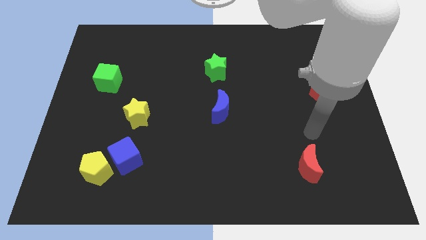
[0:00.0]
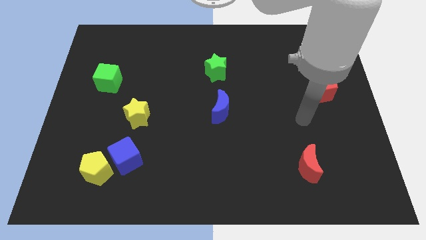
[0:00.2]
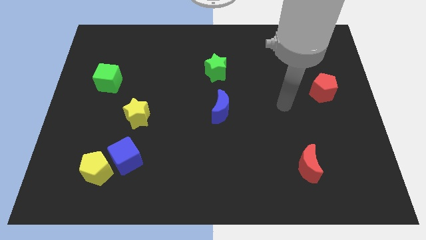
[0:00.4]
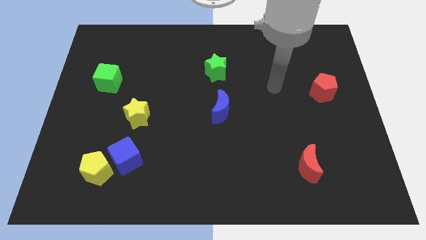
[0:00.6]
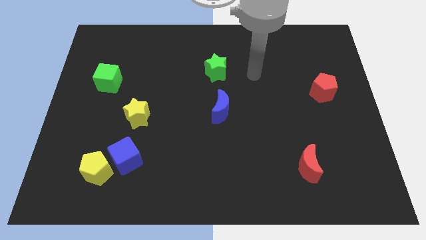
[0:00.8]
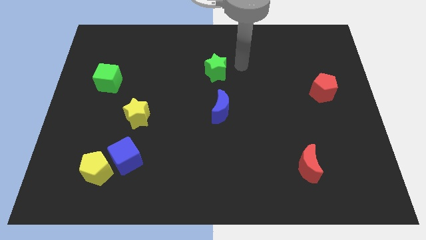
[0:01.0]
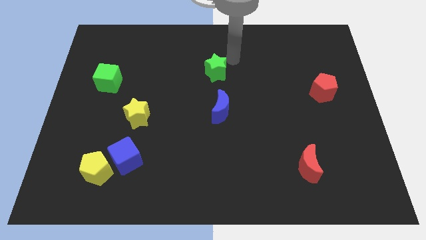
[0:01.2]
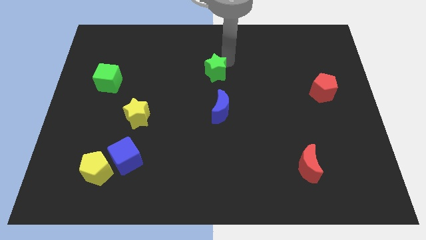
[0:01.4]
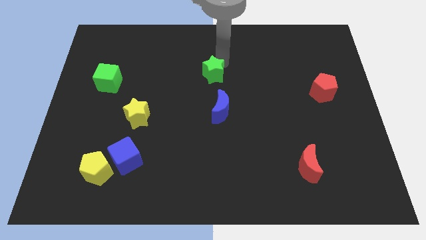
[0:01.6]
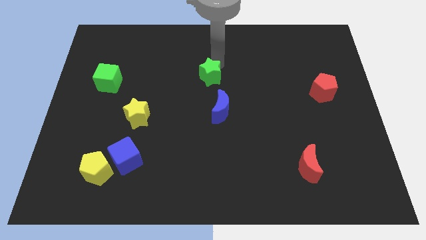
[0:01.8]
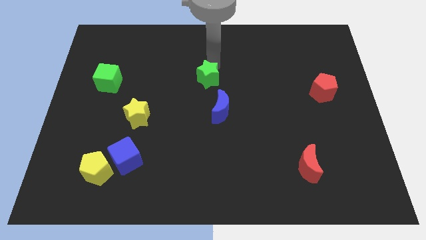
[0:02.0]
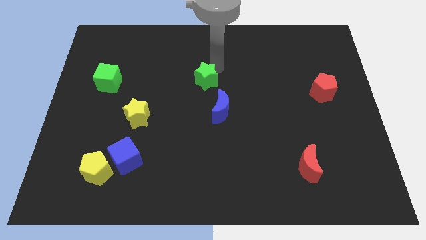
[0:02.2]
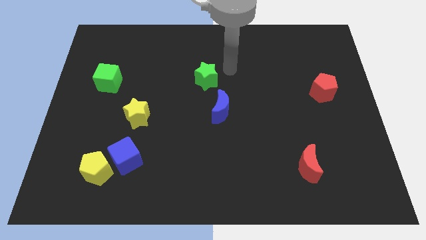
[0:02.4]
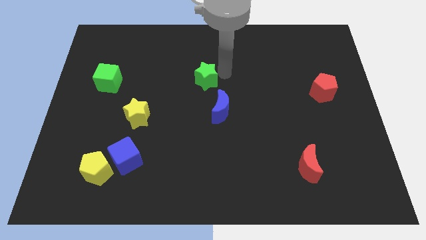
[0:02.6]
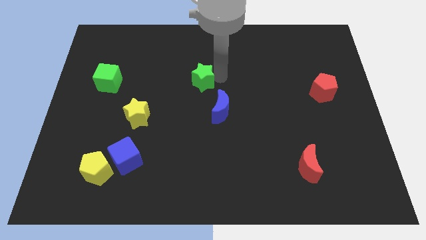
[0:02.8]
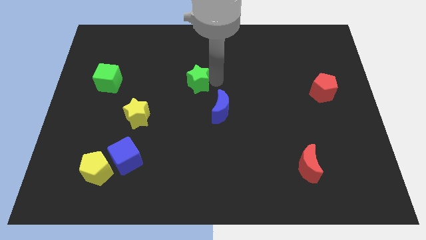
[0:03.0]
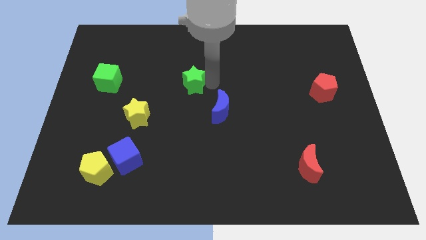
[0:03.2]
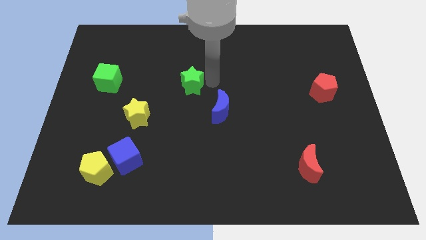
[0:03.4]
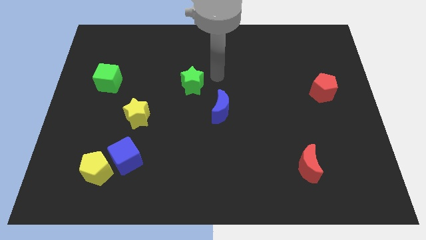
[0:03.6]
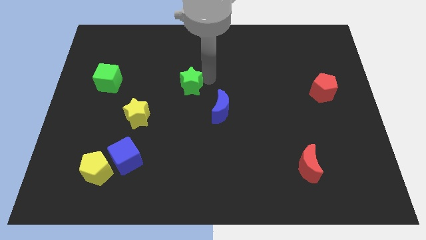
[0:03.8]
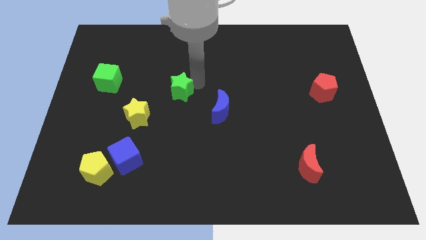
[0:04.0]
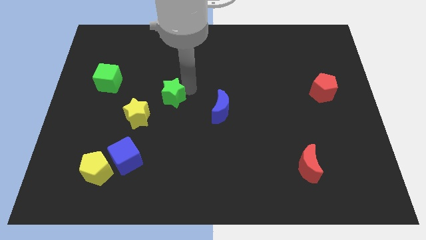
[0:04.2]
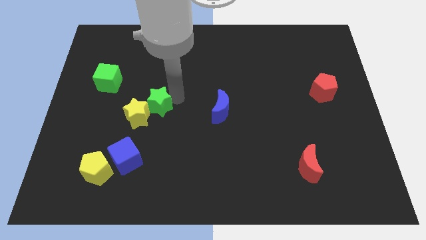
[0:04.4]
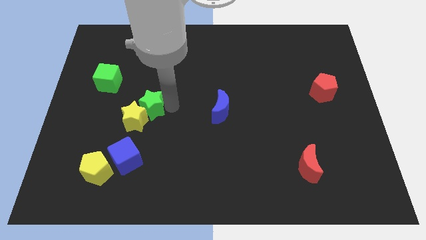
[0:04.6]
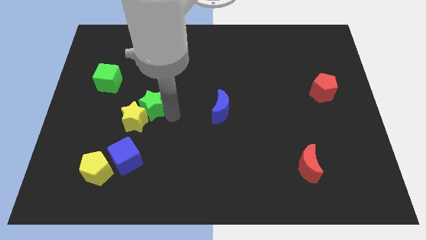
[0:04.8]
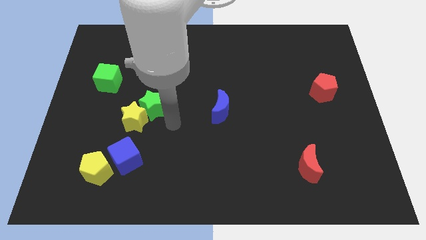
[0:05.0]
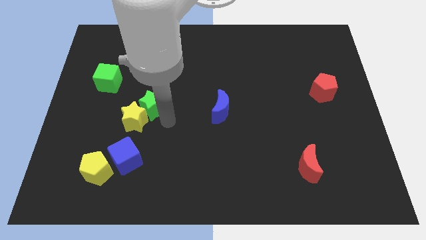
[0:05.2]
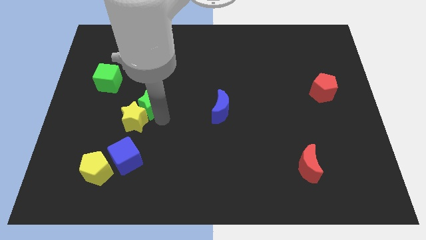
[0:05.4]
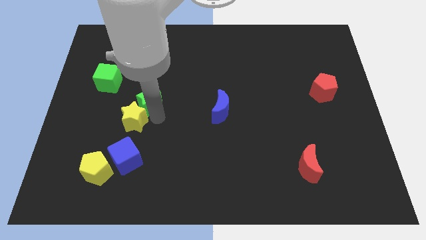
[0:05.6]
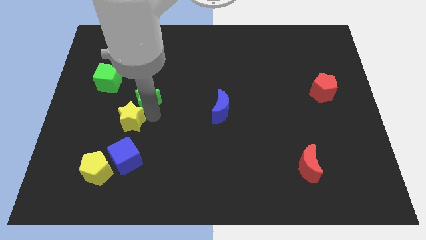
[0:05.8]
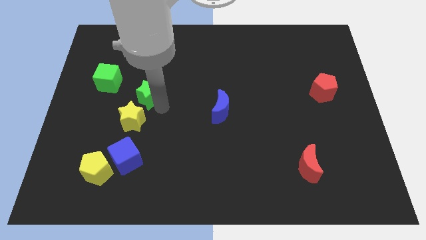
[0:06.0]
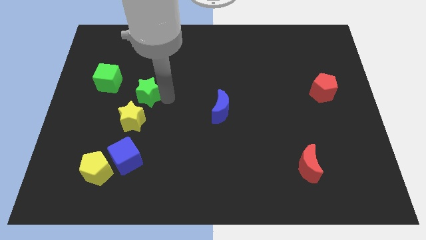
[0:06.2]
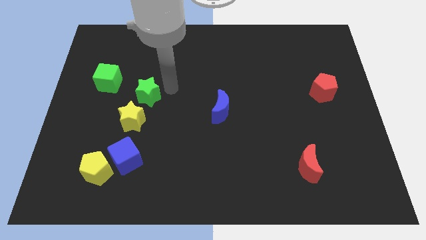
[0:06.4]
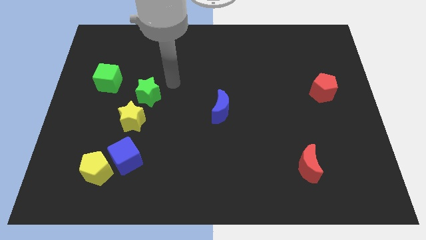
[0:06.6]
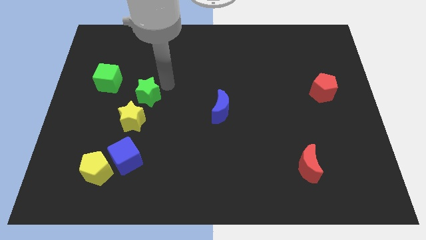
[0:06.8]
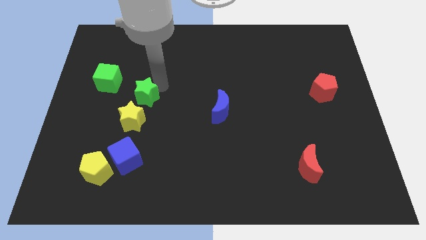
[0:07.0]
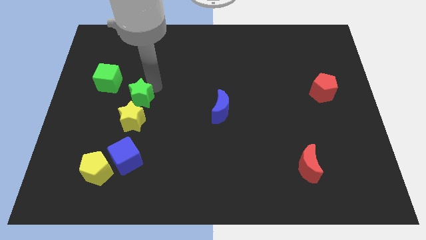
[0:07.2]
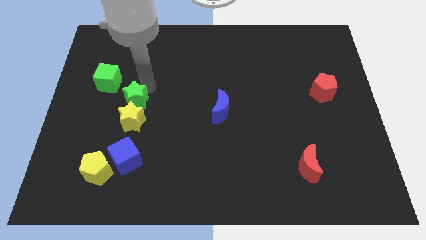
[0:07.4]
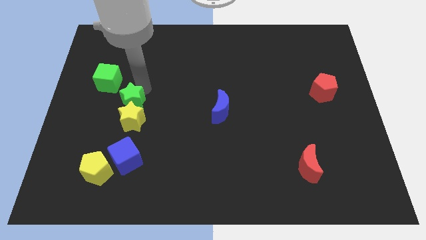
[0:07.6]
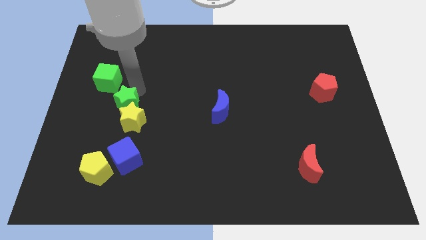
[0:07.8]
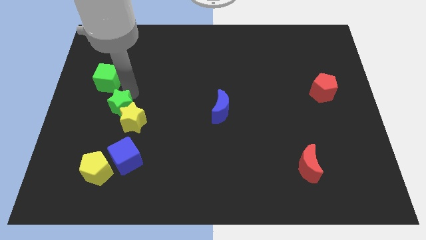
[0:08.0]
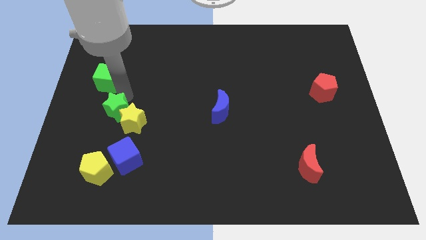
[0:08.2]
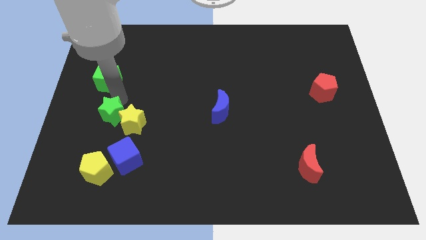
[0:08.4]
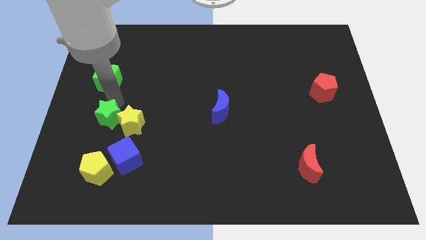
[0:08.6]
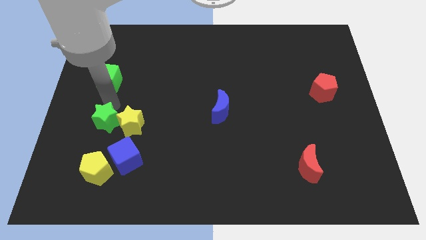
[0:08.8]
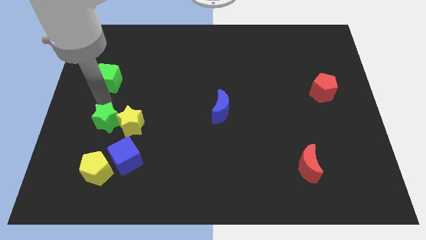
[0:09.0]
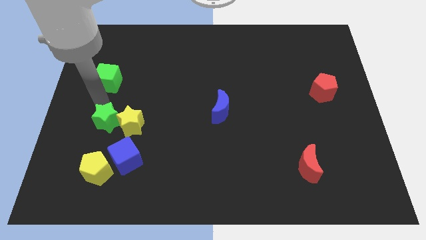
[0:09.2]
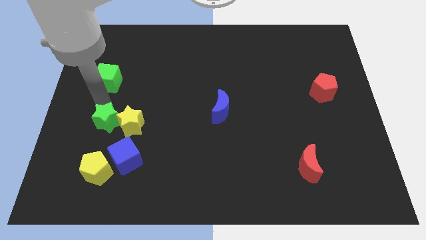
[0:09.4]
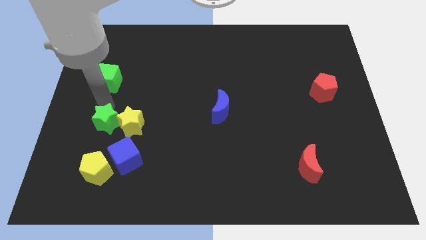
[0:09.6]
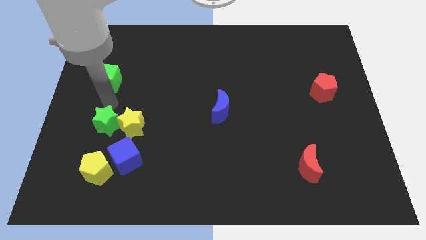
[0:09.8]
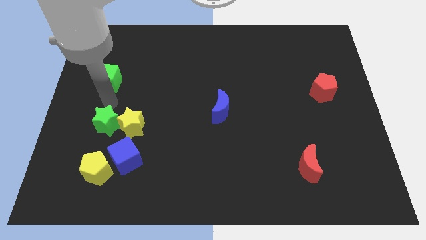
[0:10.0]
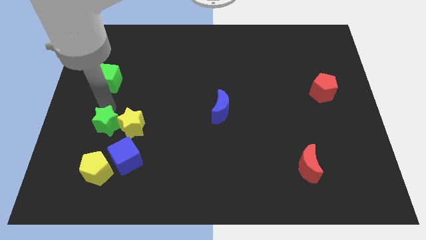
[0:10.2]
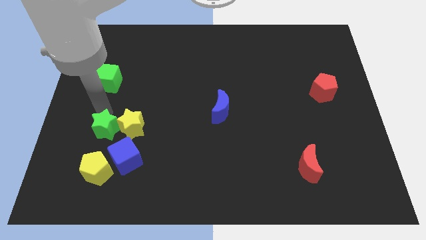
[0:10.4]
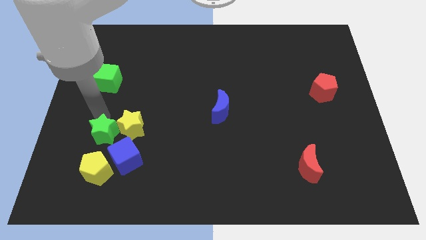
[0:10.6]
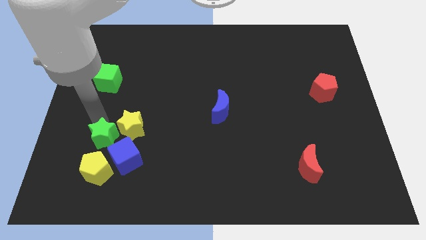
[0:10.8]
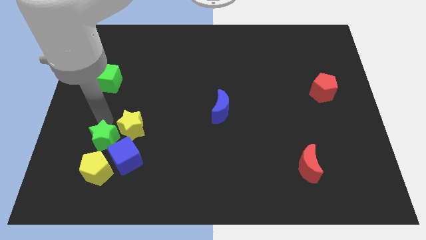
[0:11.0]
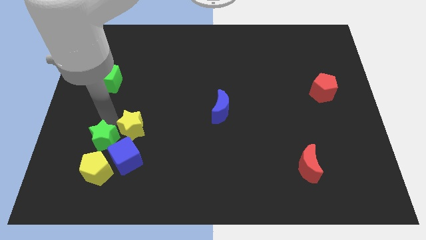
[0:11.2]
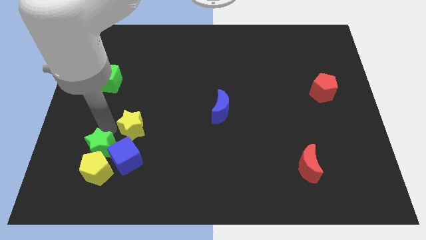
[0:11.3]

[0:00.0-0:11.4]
slide the green star close to the yellow pentagon

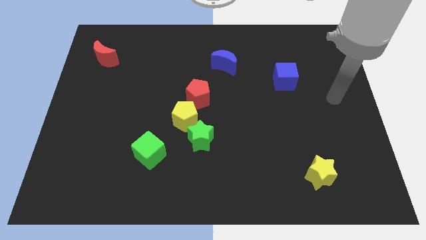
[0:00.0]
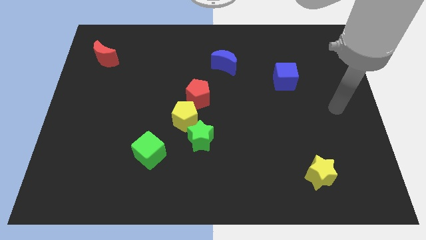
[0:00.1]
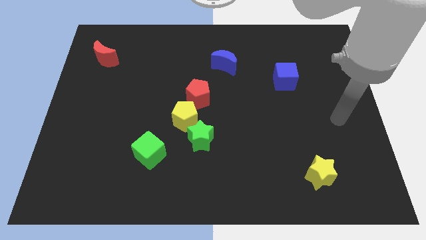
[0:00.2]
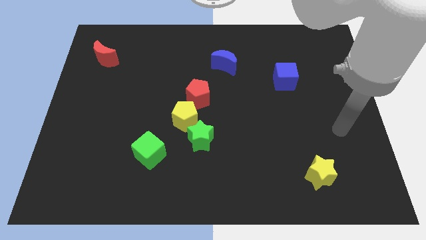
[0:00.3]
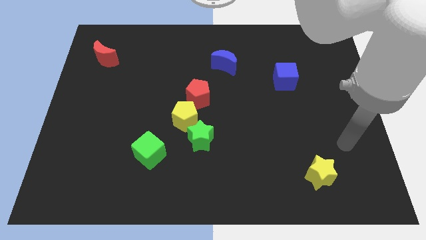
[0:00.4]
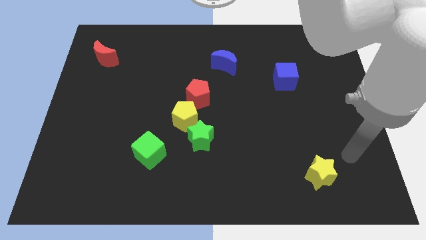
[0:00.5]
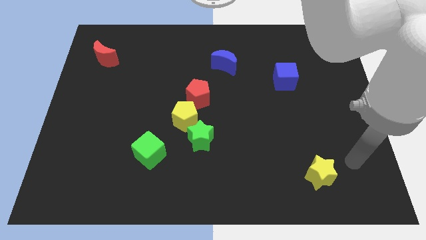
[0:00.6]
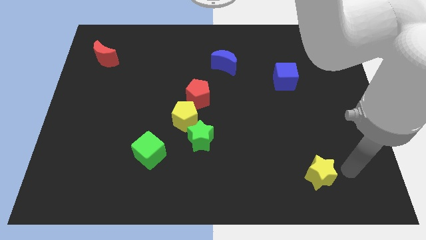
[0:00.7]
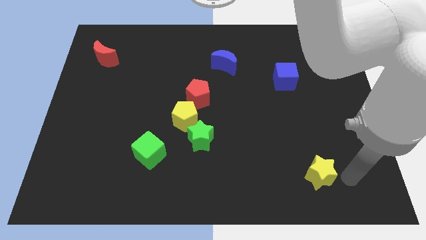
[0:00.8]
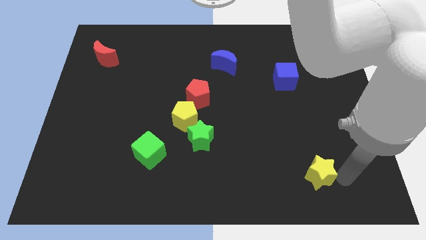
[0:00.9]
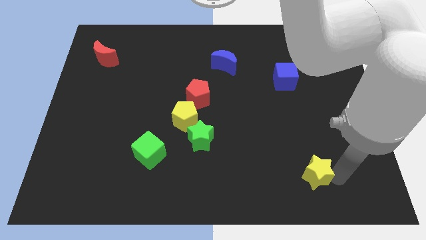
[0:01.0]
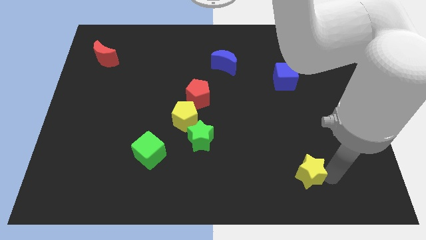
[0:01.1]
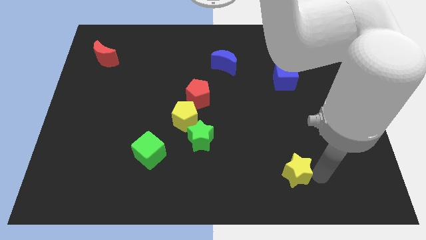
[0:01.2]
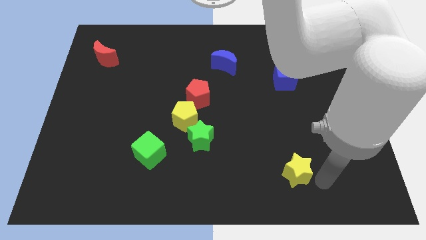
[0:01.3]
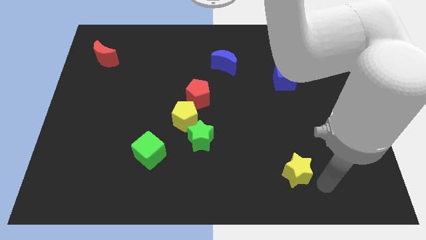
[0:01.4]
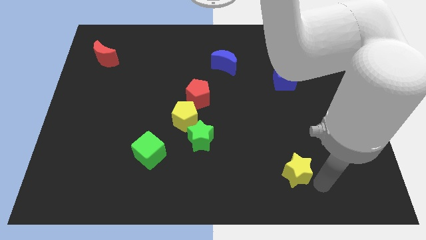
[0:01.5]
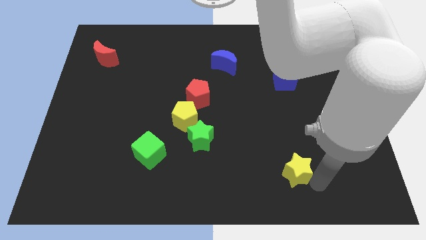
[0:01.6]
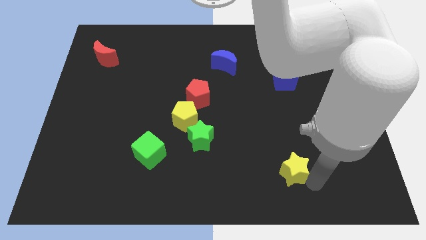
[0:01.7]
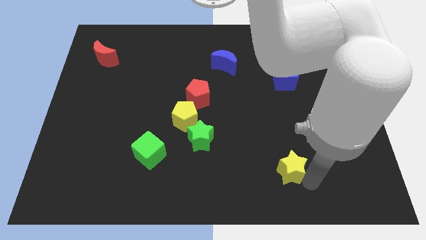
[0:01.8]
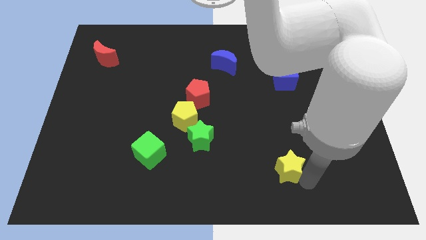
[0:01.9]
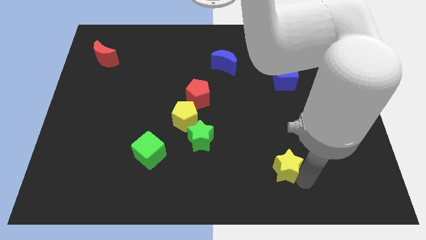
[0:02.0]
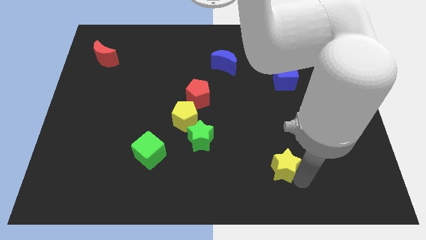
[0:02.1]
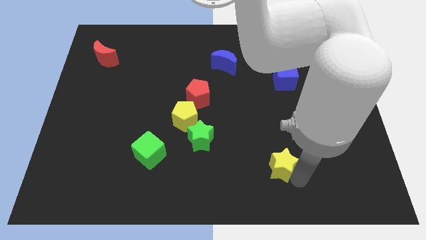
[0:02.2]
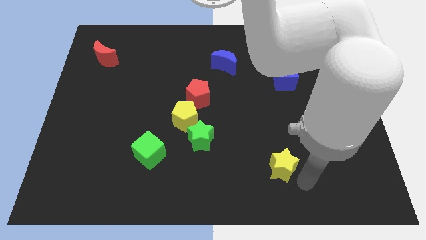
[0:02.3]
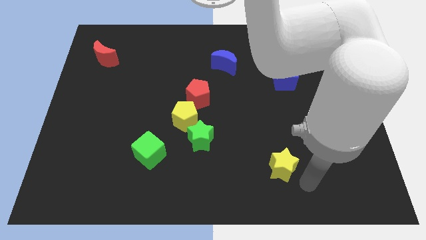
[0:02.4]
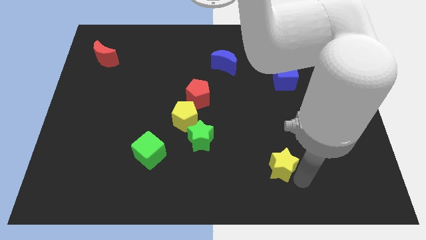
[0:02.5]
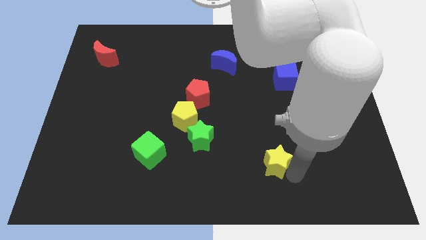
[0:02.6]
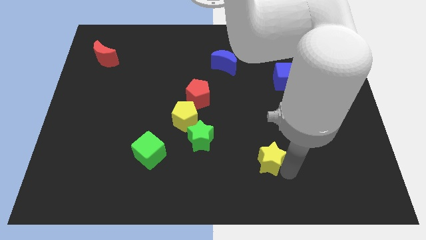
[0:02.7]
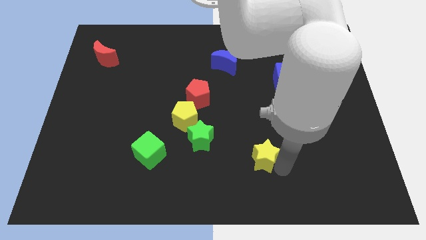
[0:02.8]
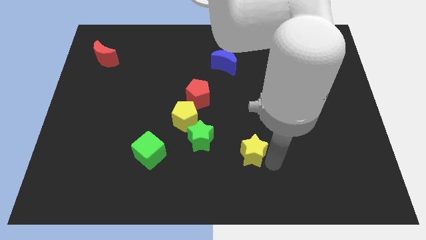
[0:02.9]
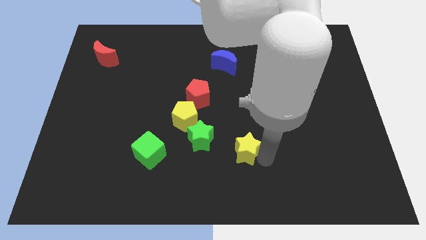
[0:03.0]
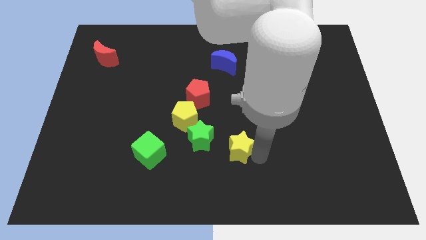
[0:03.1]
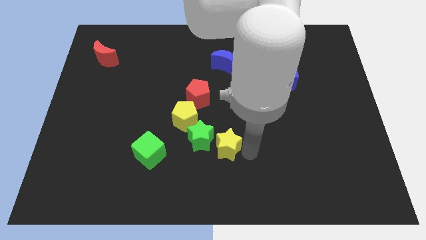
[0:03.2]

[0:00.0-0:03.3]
slide the yellow star next to the green star
